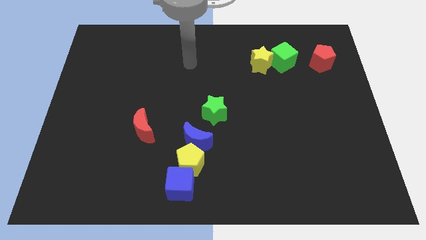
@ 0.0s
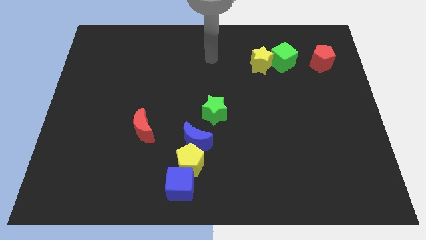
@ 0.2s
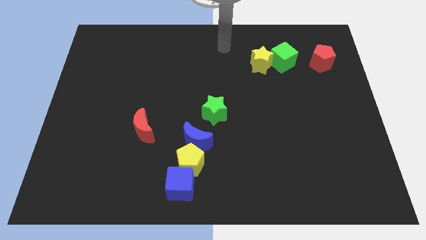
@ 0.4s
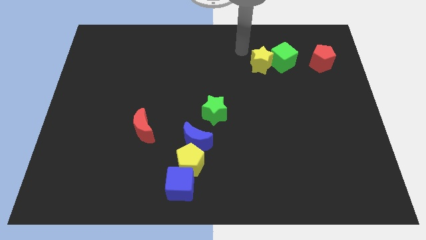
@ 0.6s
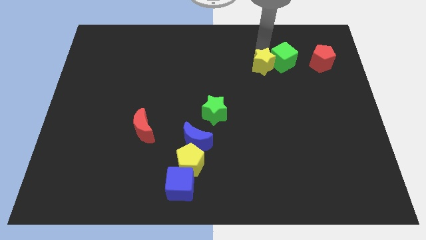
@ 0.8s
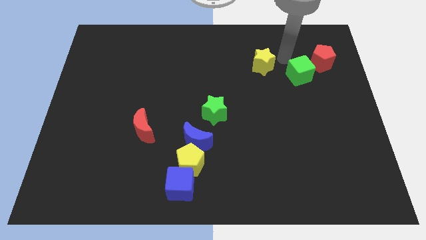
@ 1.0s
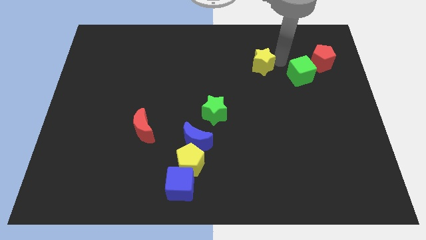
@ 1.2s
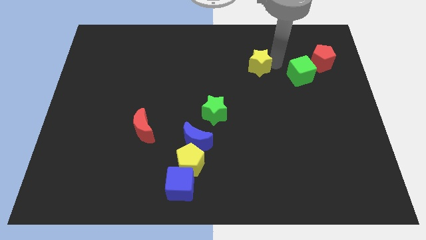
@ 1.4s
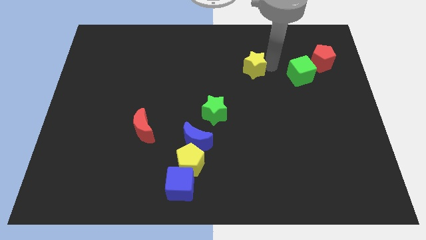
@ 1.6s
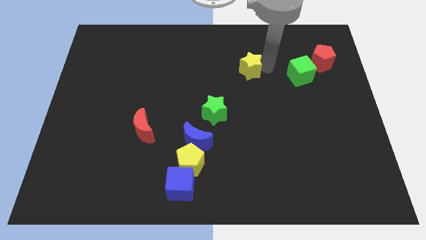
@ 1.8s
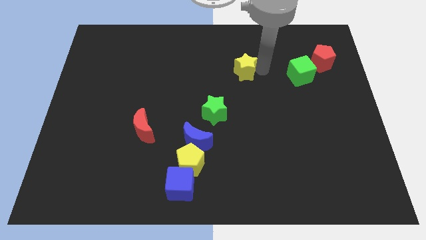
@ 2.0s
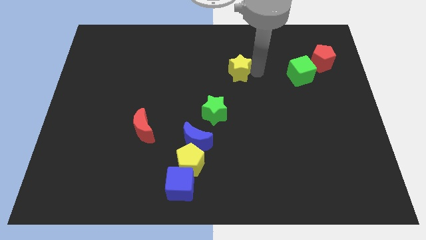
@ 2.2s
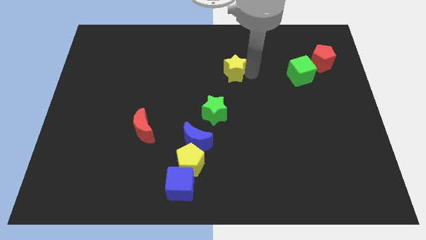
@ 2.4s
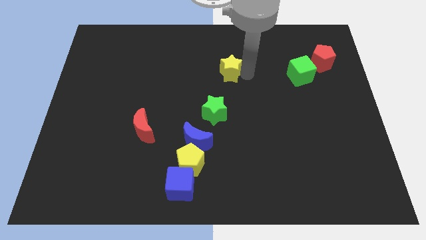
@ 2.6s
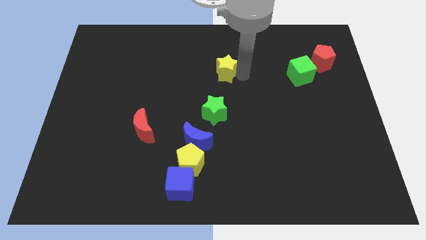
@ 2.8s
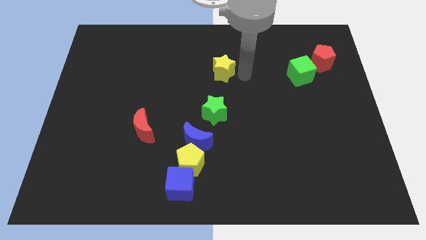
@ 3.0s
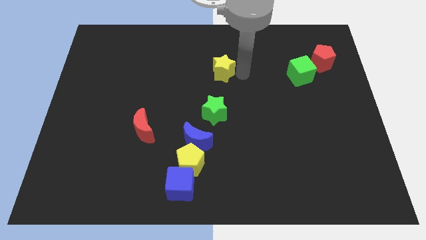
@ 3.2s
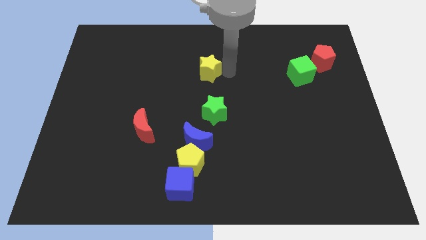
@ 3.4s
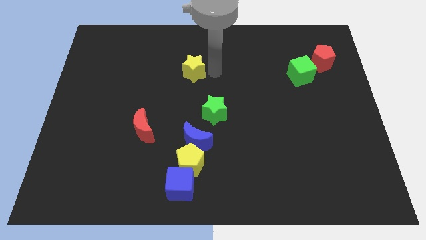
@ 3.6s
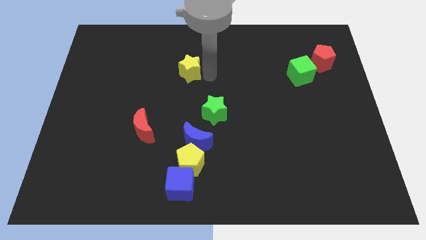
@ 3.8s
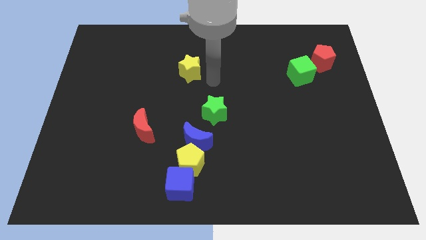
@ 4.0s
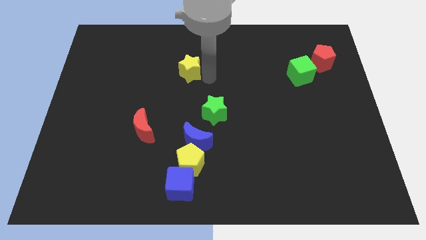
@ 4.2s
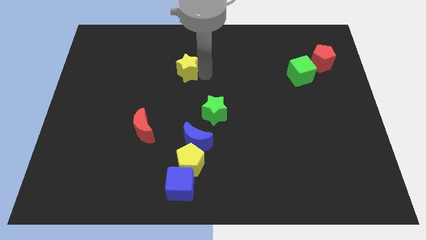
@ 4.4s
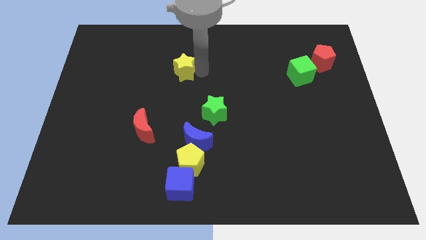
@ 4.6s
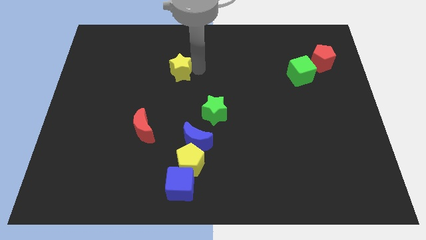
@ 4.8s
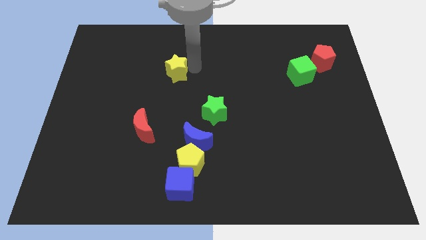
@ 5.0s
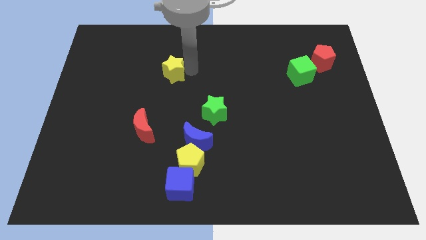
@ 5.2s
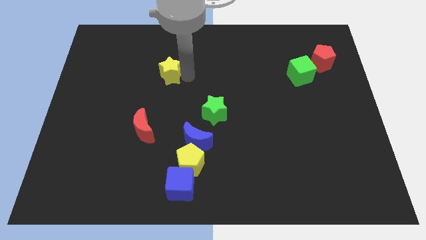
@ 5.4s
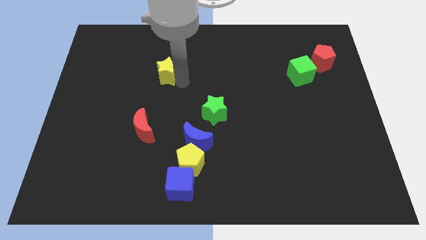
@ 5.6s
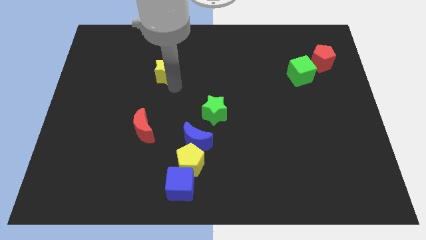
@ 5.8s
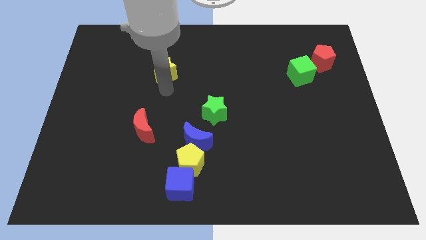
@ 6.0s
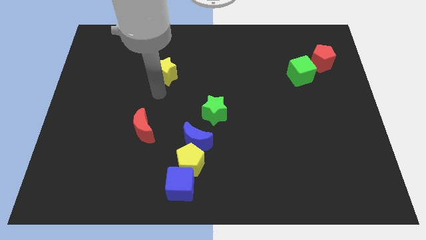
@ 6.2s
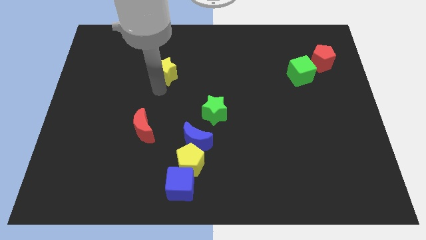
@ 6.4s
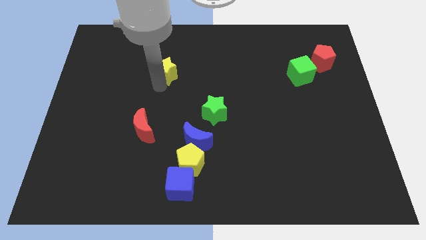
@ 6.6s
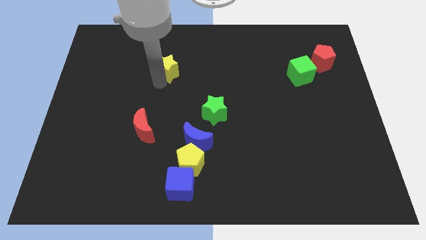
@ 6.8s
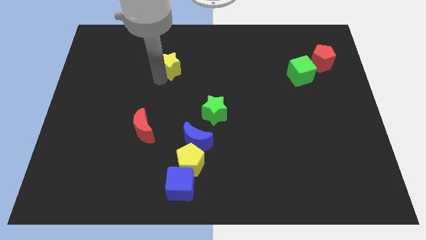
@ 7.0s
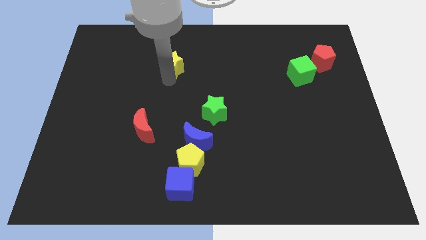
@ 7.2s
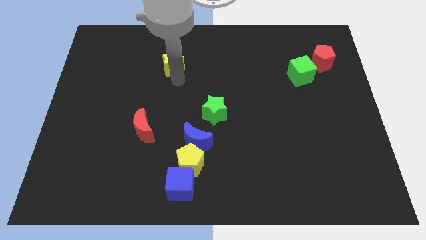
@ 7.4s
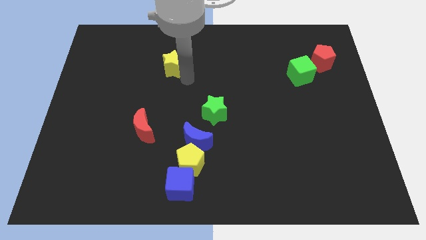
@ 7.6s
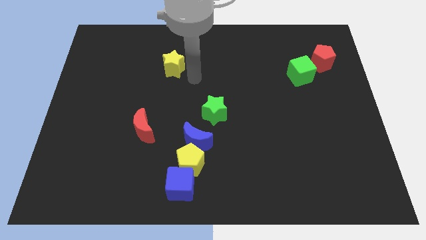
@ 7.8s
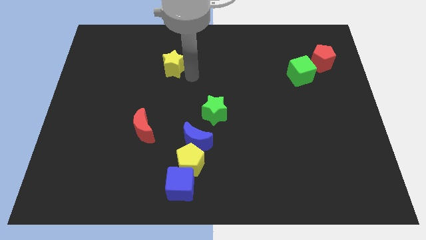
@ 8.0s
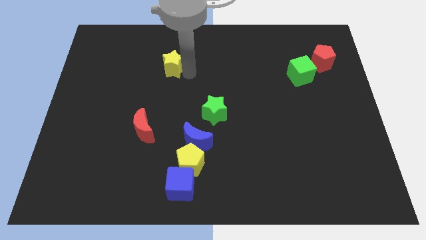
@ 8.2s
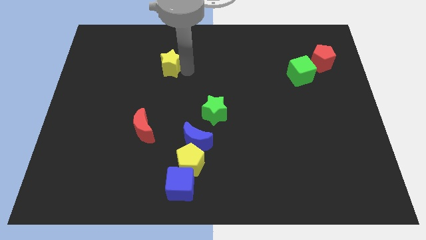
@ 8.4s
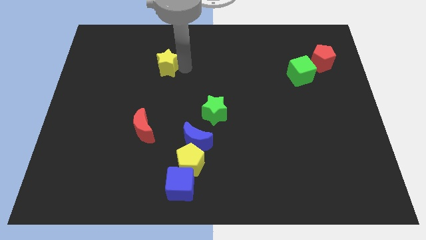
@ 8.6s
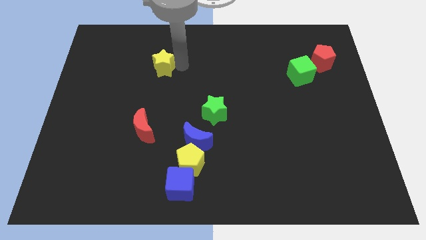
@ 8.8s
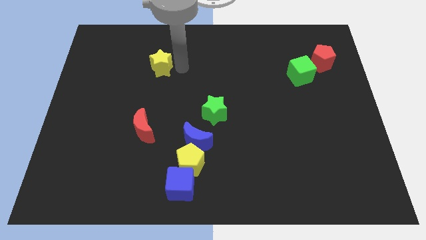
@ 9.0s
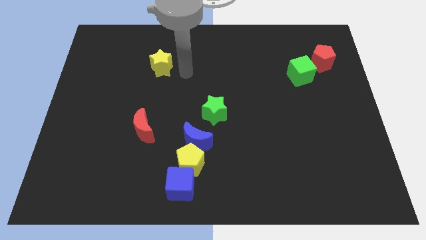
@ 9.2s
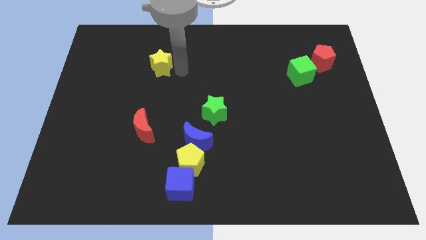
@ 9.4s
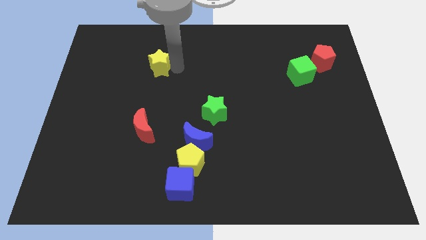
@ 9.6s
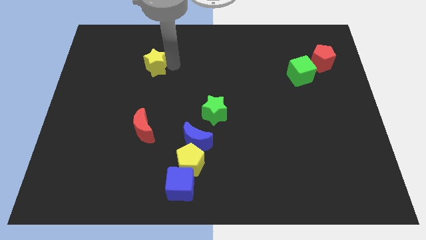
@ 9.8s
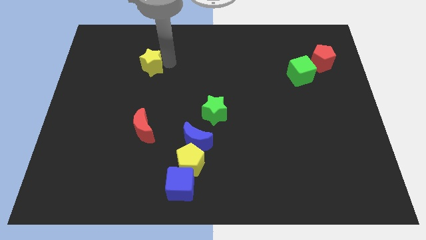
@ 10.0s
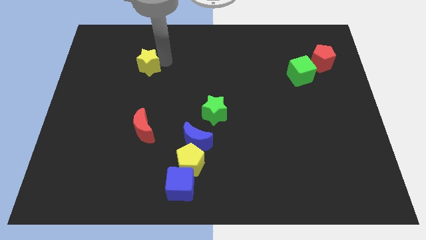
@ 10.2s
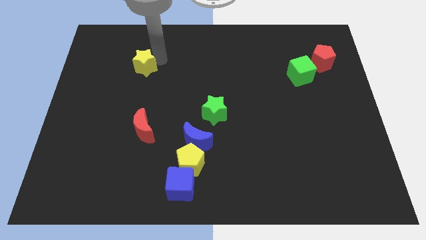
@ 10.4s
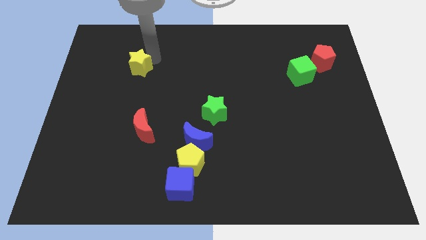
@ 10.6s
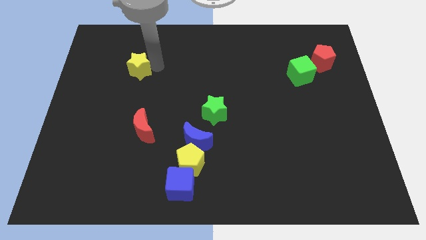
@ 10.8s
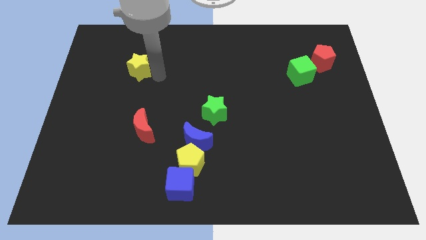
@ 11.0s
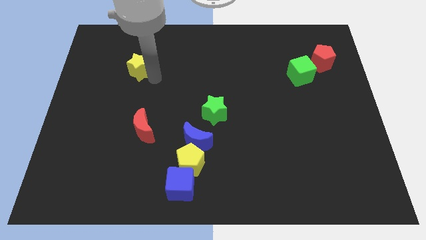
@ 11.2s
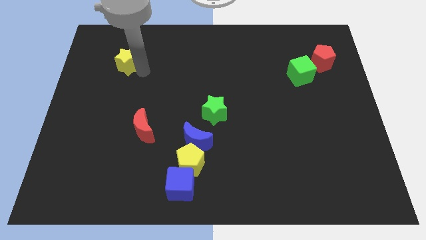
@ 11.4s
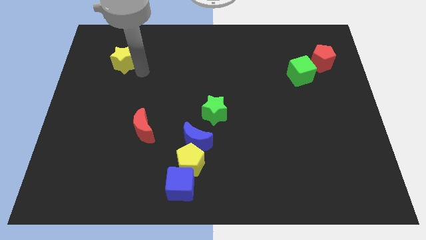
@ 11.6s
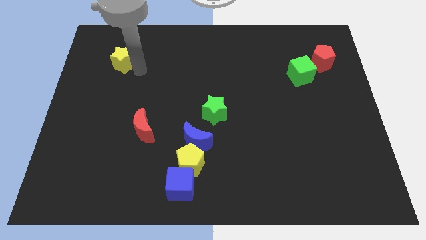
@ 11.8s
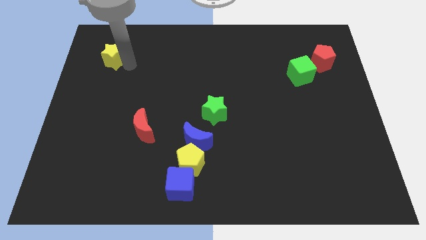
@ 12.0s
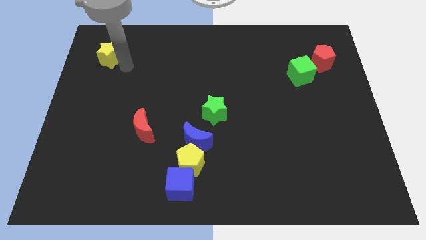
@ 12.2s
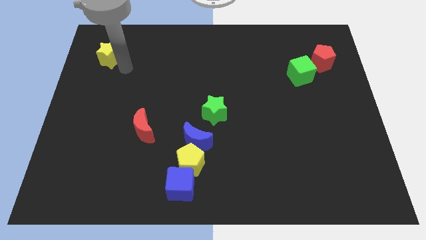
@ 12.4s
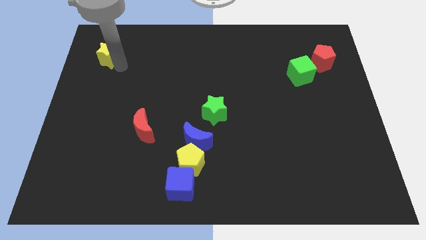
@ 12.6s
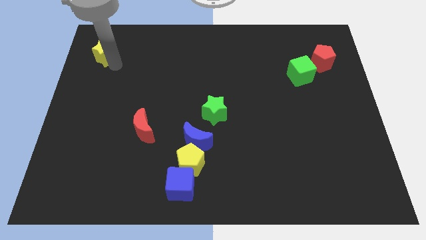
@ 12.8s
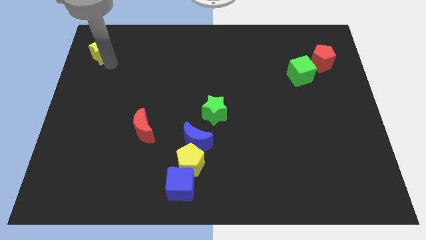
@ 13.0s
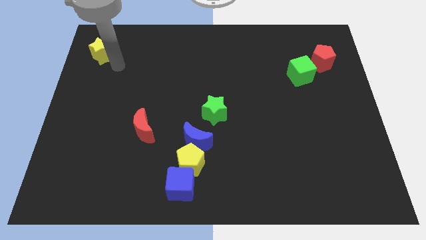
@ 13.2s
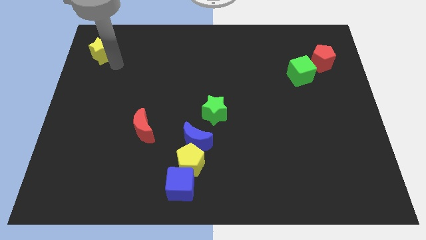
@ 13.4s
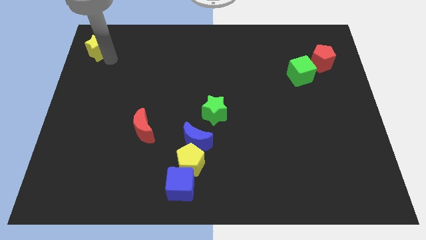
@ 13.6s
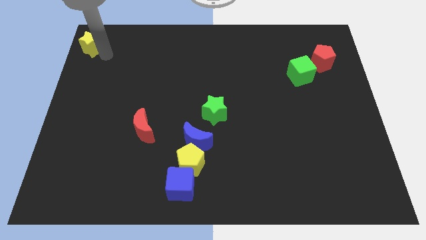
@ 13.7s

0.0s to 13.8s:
move the yellow star to the top left
